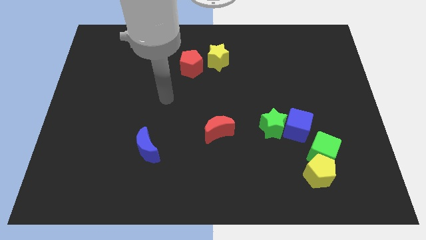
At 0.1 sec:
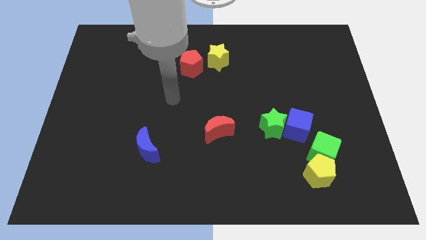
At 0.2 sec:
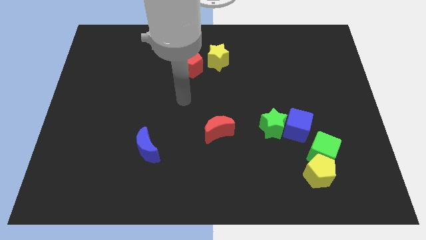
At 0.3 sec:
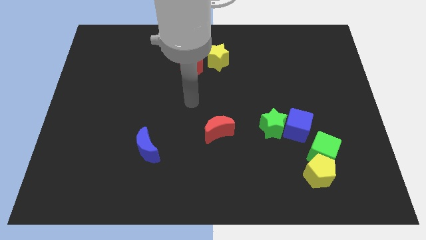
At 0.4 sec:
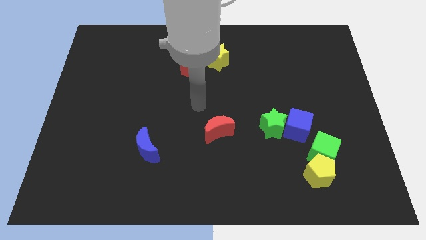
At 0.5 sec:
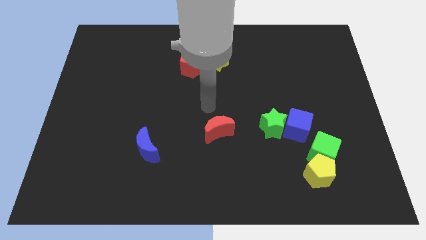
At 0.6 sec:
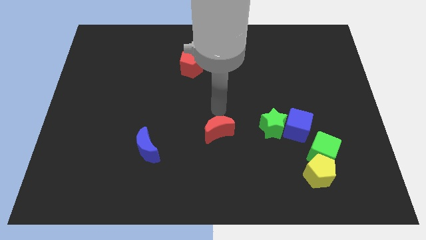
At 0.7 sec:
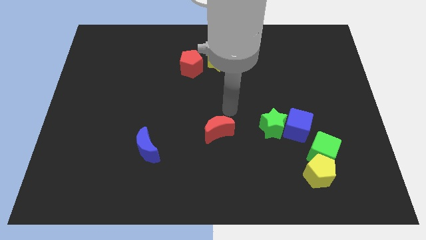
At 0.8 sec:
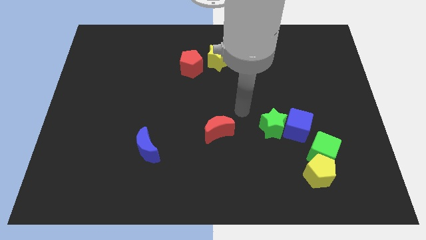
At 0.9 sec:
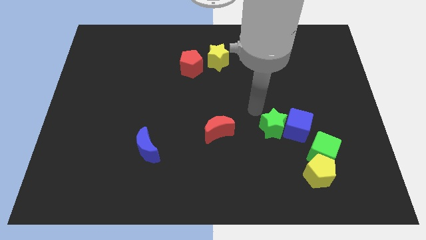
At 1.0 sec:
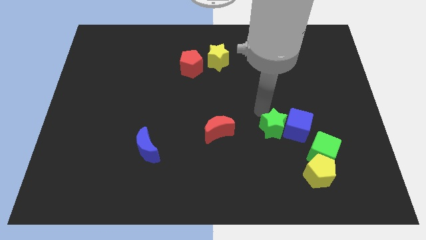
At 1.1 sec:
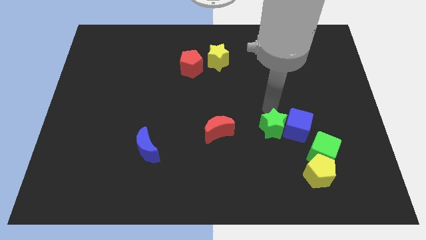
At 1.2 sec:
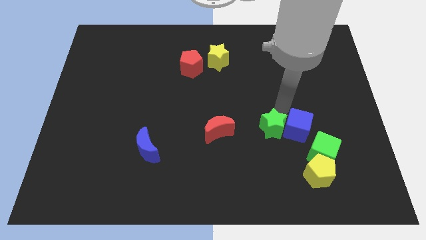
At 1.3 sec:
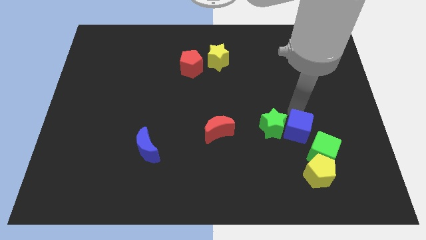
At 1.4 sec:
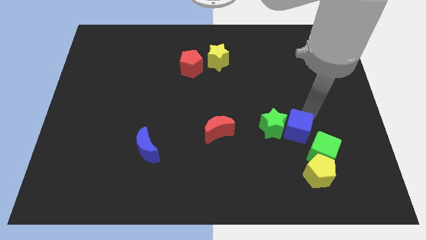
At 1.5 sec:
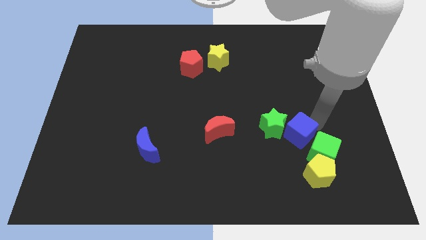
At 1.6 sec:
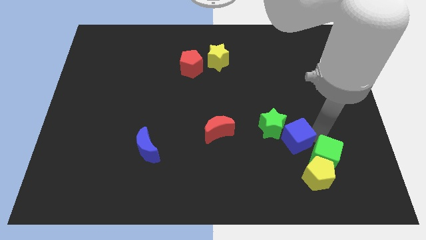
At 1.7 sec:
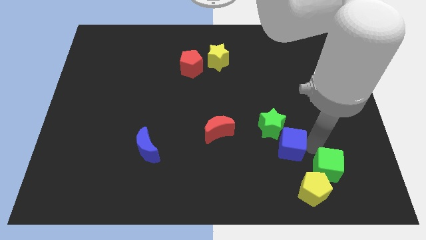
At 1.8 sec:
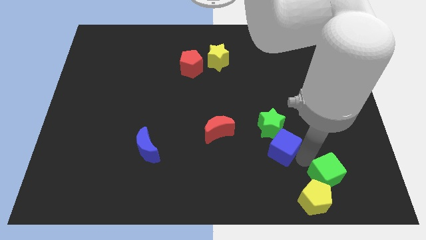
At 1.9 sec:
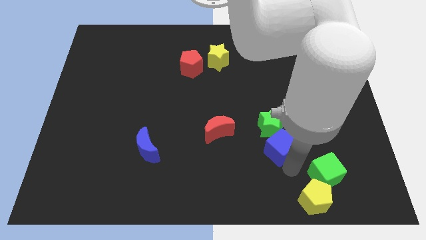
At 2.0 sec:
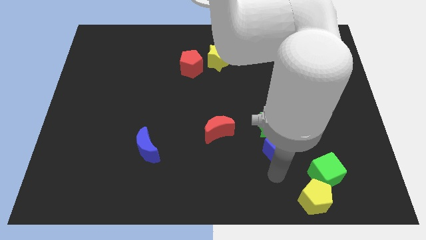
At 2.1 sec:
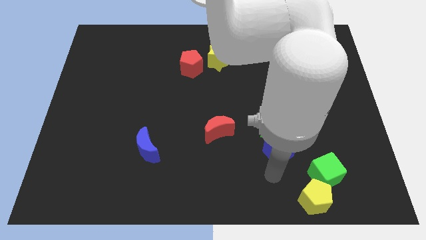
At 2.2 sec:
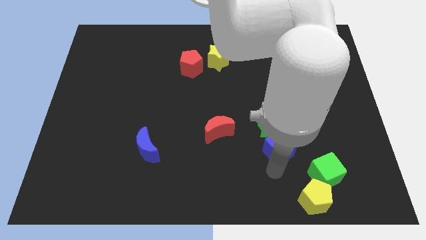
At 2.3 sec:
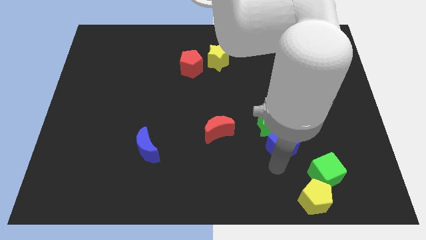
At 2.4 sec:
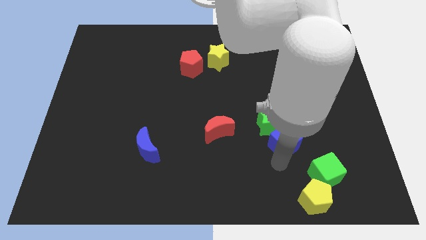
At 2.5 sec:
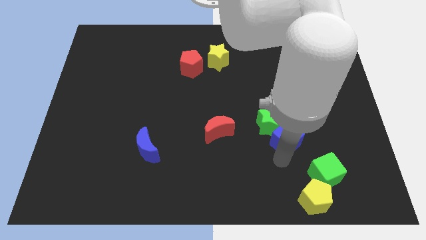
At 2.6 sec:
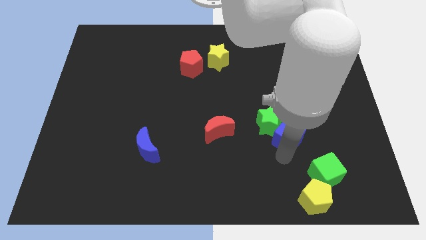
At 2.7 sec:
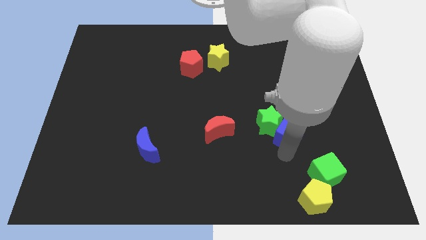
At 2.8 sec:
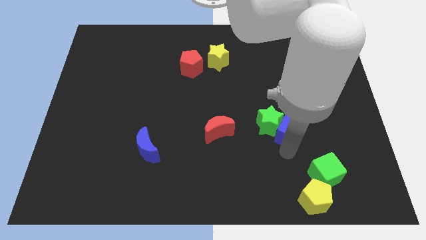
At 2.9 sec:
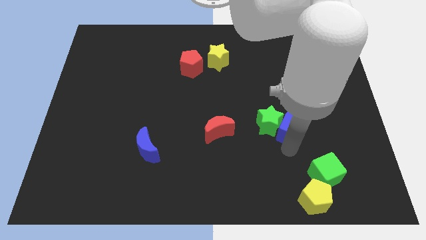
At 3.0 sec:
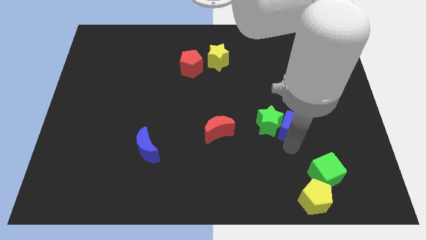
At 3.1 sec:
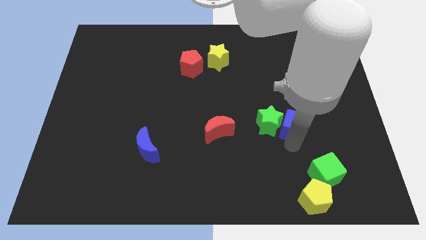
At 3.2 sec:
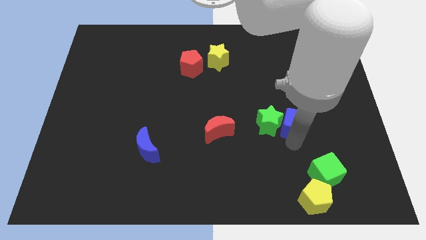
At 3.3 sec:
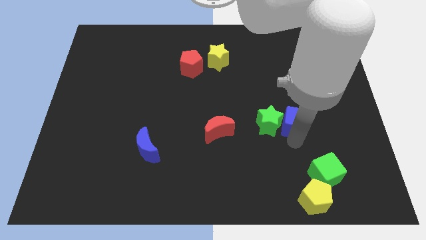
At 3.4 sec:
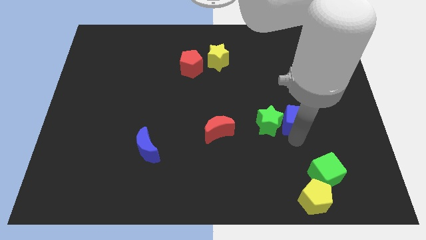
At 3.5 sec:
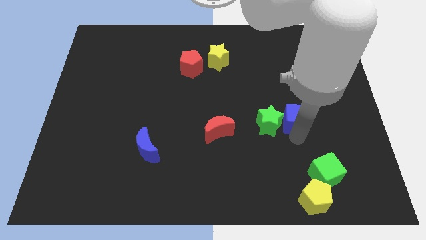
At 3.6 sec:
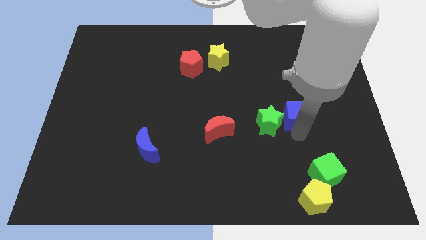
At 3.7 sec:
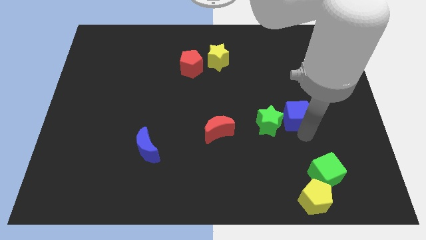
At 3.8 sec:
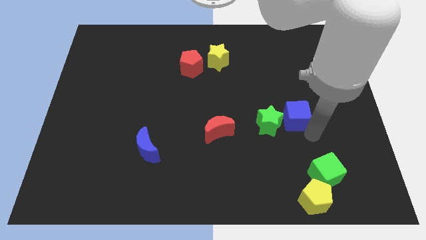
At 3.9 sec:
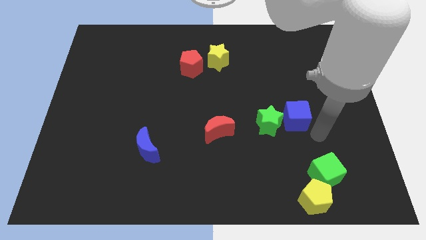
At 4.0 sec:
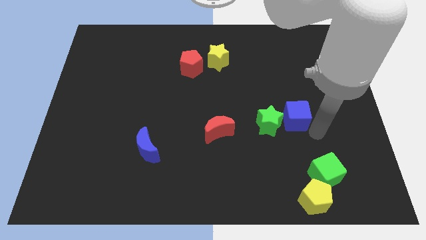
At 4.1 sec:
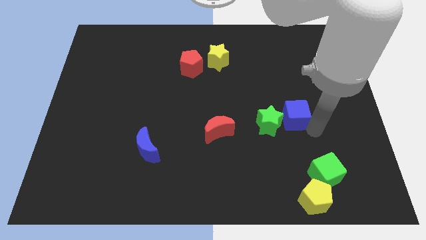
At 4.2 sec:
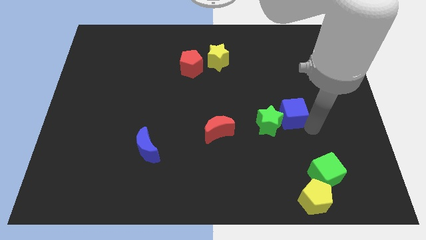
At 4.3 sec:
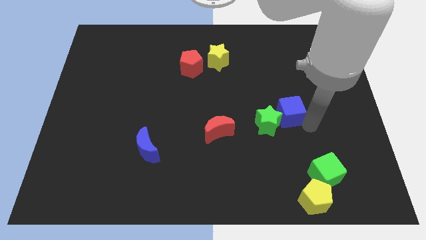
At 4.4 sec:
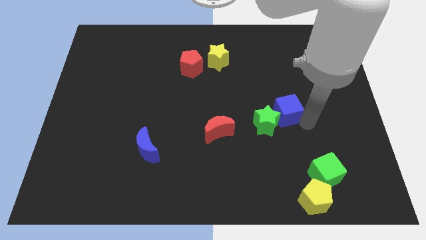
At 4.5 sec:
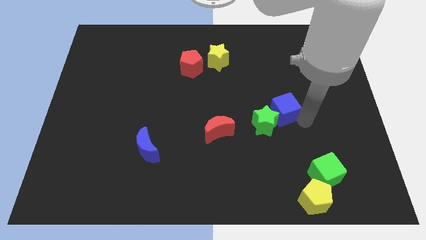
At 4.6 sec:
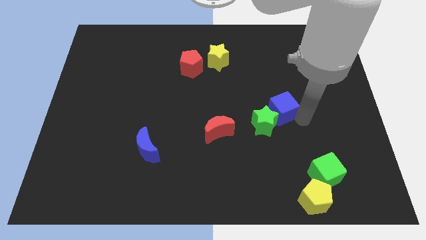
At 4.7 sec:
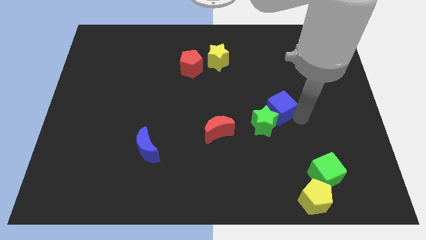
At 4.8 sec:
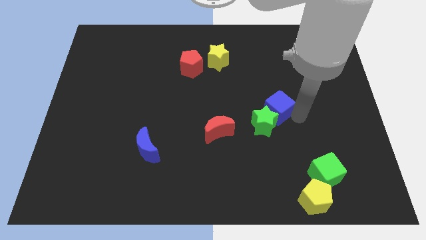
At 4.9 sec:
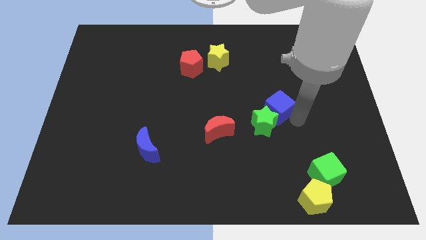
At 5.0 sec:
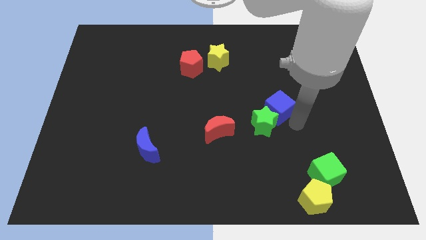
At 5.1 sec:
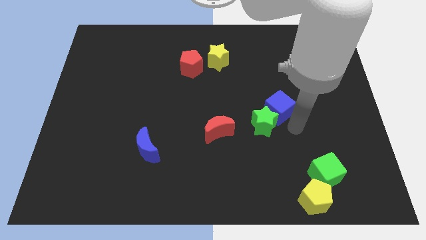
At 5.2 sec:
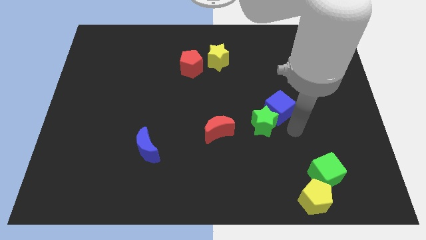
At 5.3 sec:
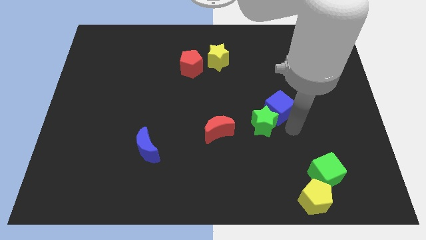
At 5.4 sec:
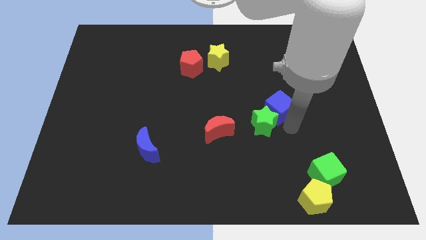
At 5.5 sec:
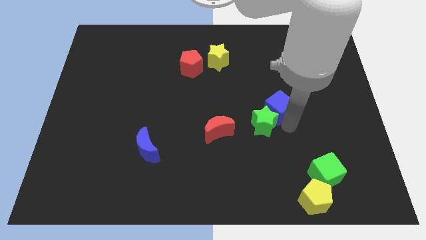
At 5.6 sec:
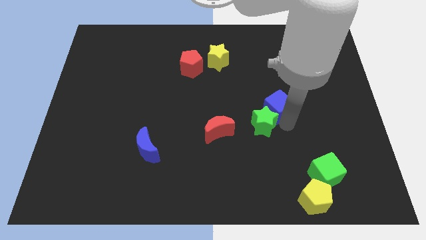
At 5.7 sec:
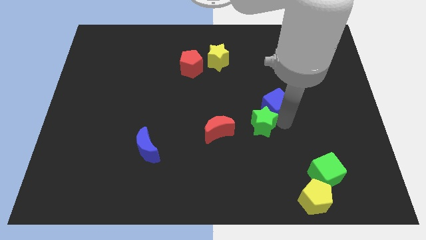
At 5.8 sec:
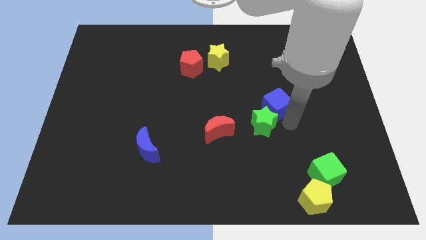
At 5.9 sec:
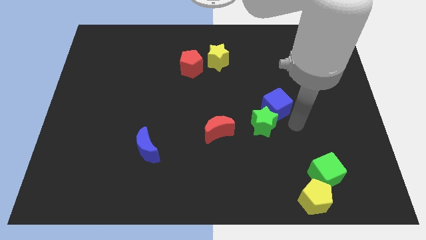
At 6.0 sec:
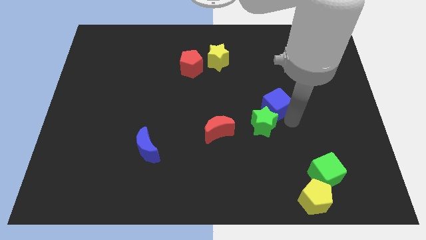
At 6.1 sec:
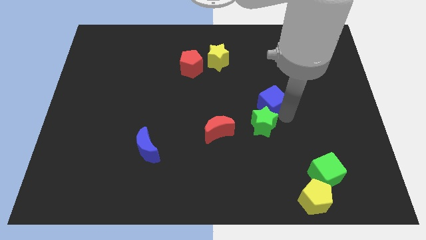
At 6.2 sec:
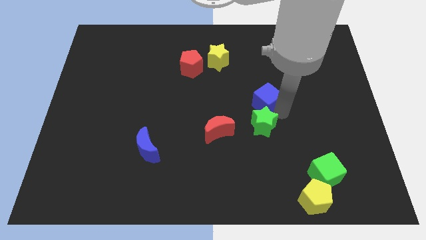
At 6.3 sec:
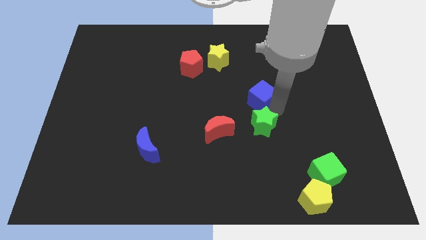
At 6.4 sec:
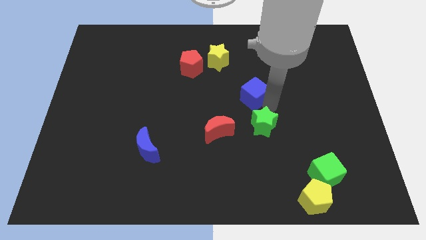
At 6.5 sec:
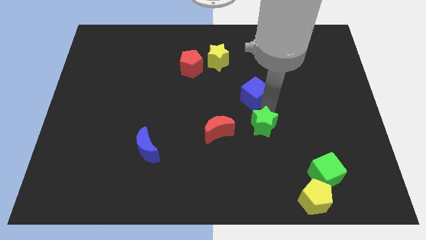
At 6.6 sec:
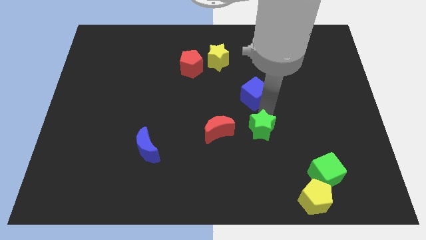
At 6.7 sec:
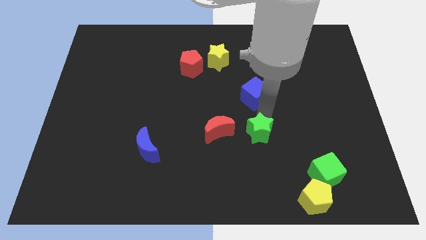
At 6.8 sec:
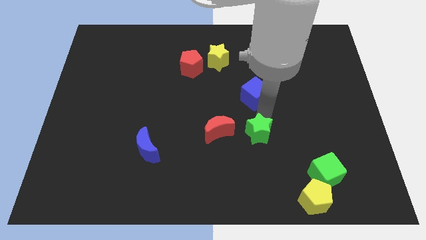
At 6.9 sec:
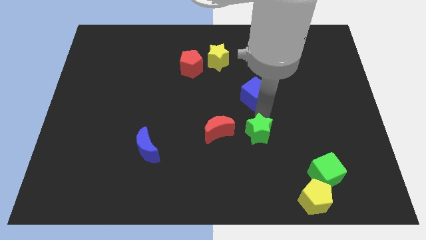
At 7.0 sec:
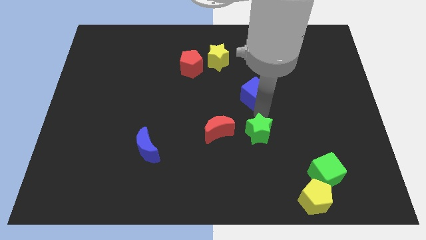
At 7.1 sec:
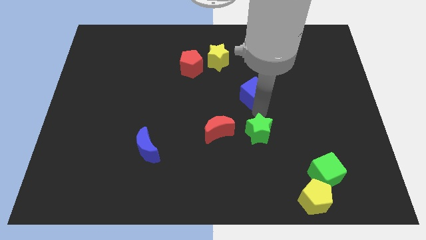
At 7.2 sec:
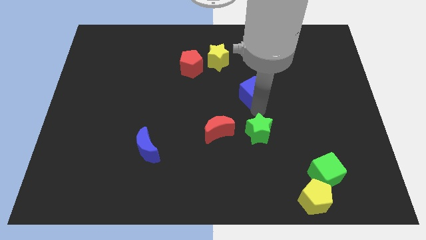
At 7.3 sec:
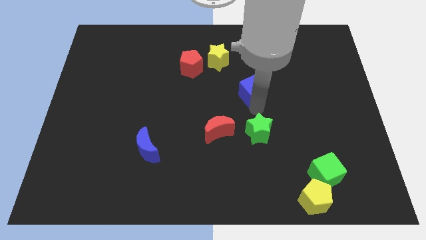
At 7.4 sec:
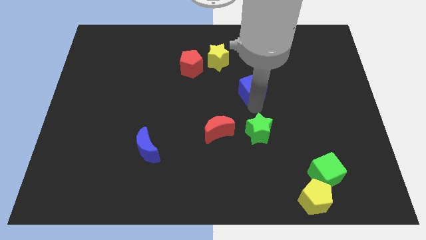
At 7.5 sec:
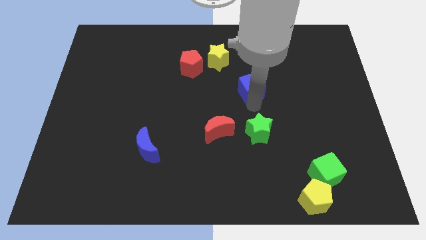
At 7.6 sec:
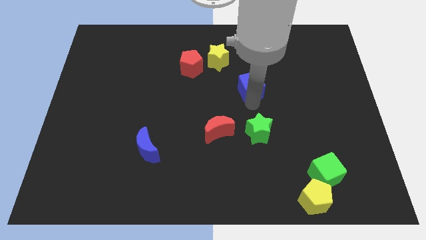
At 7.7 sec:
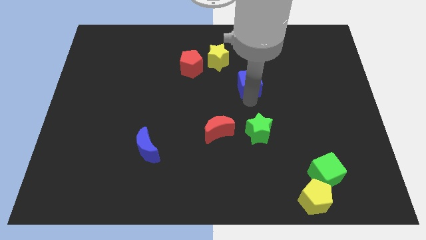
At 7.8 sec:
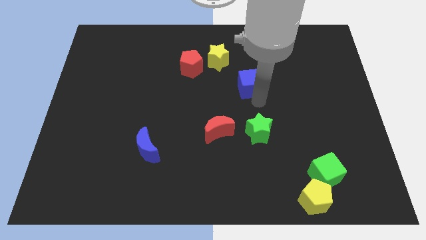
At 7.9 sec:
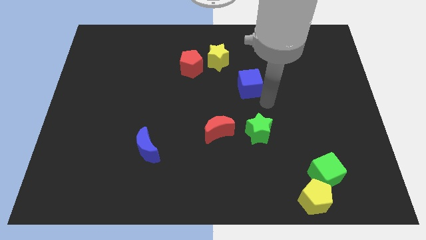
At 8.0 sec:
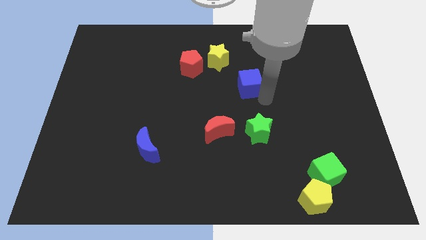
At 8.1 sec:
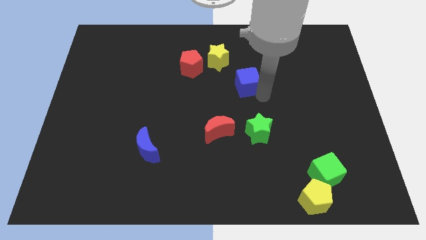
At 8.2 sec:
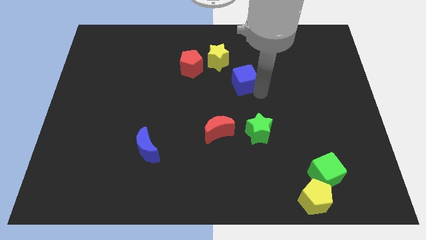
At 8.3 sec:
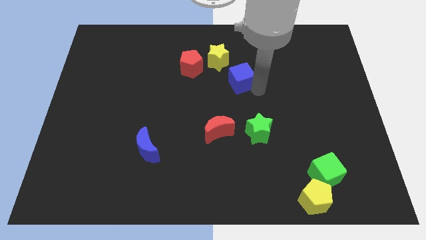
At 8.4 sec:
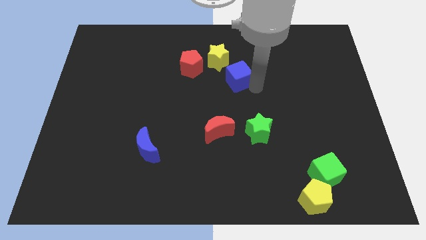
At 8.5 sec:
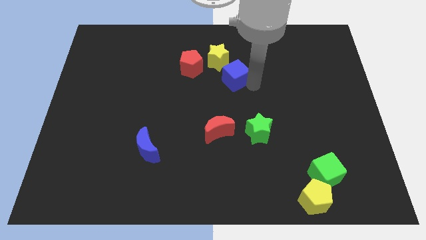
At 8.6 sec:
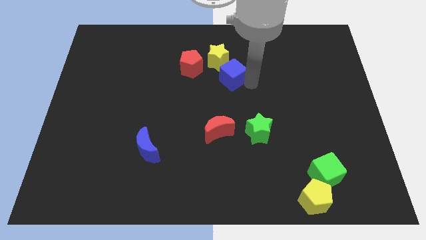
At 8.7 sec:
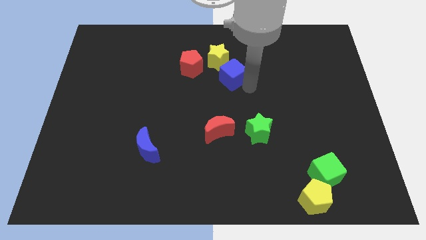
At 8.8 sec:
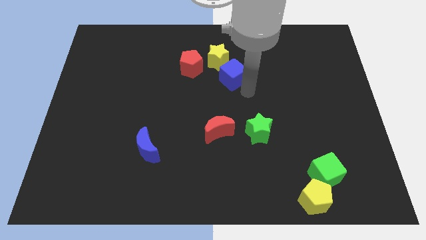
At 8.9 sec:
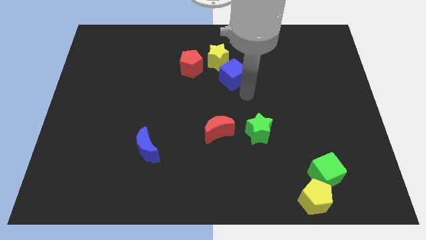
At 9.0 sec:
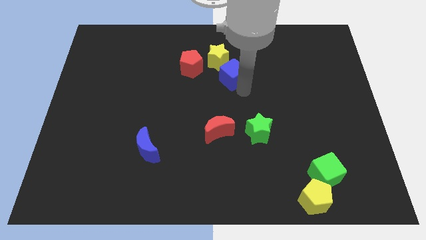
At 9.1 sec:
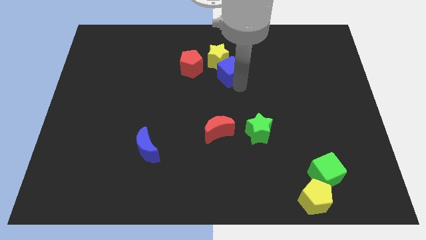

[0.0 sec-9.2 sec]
move the blue cube to the yellow star
